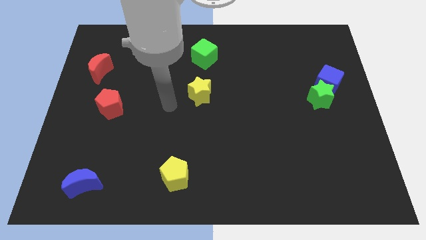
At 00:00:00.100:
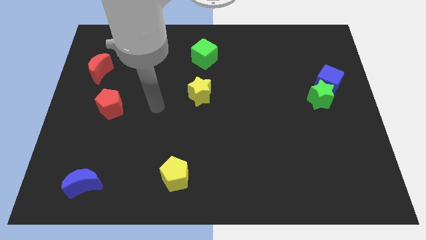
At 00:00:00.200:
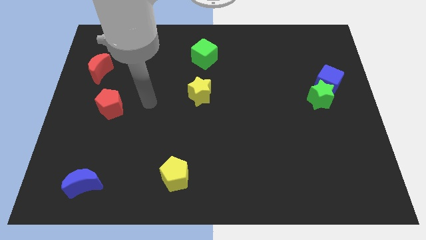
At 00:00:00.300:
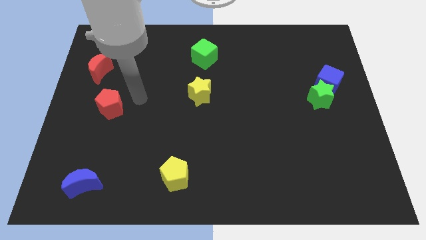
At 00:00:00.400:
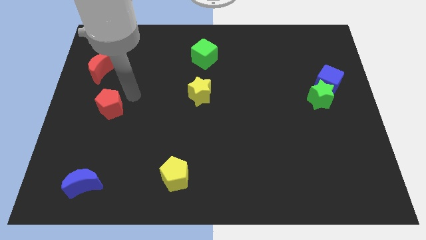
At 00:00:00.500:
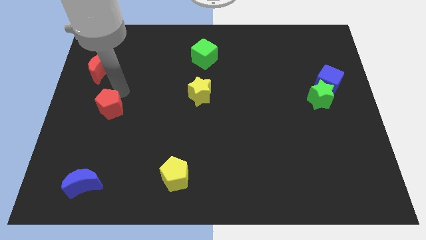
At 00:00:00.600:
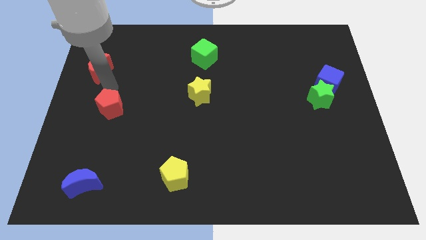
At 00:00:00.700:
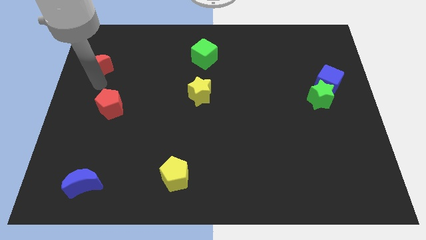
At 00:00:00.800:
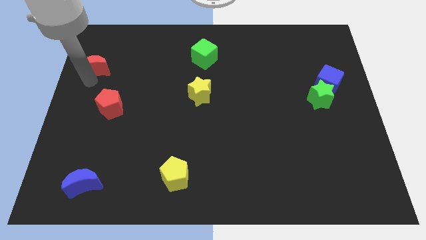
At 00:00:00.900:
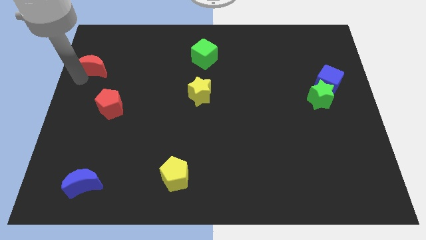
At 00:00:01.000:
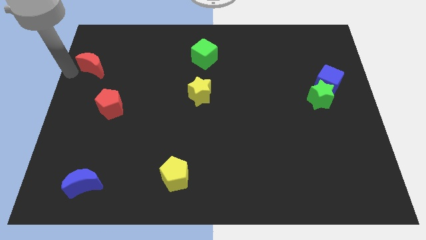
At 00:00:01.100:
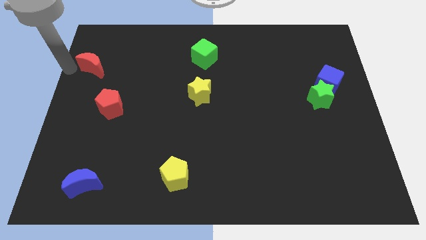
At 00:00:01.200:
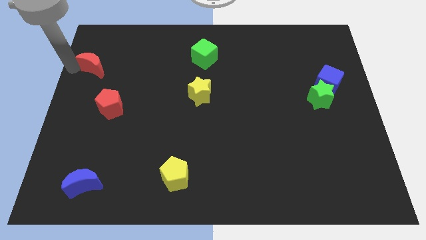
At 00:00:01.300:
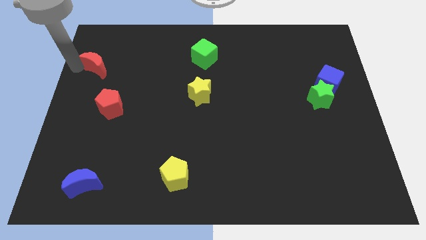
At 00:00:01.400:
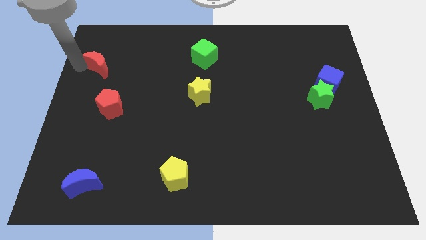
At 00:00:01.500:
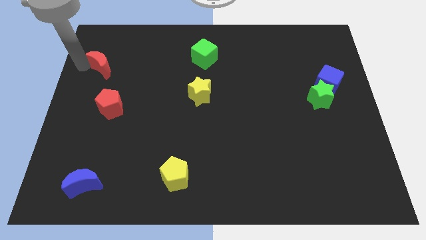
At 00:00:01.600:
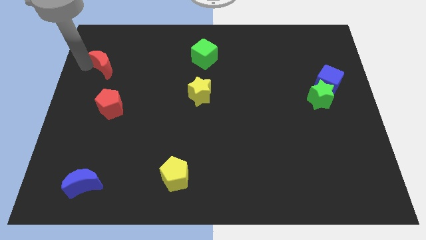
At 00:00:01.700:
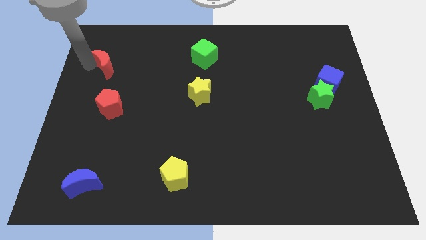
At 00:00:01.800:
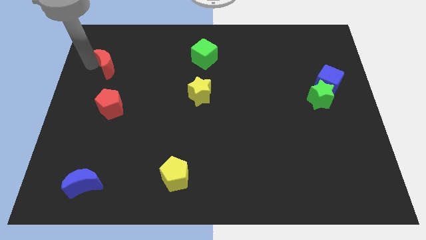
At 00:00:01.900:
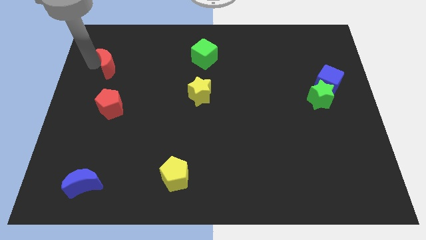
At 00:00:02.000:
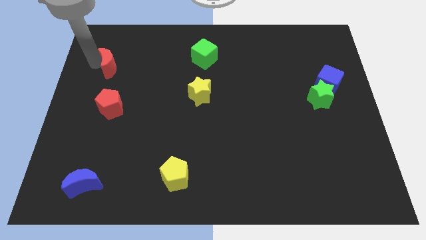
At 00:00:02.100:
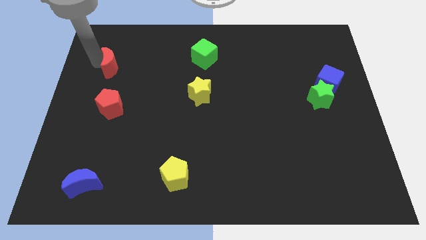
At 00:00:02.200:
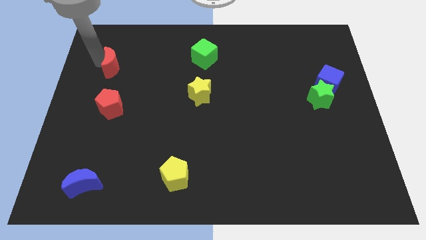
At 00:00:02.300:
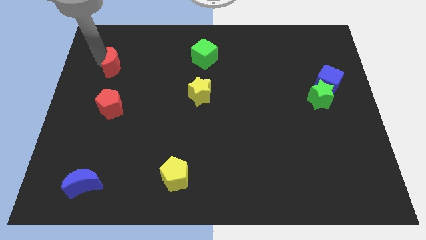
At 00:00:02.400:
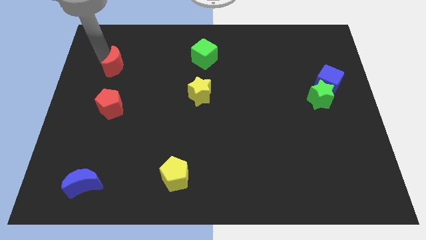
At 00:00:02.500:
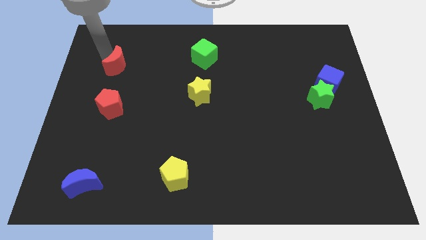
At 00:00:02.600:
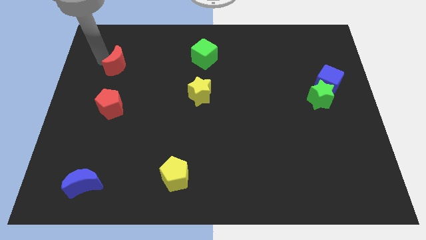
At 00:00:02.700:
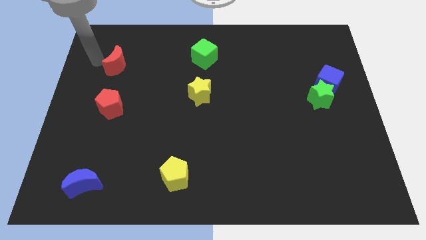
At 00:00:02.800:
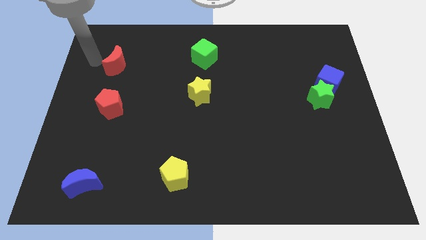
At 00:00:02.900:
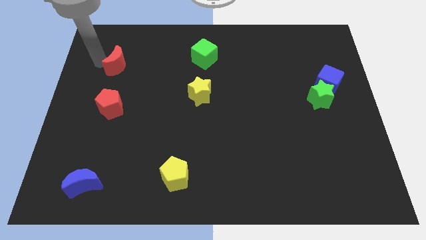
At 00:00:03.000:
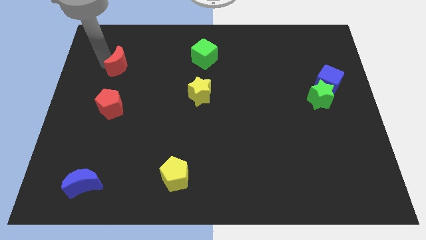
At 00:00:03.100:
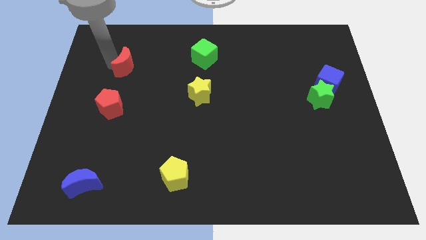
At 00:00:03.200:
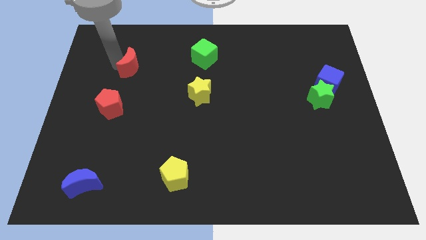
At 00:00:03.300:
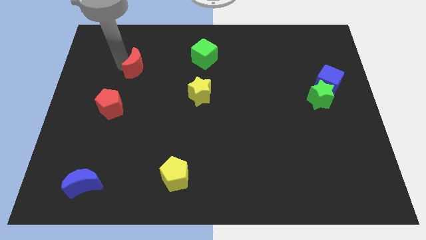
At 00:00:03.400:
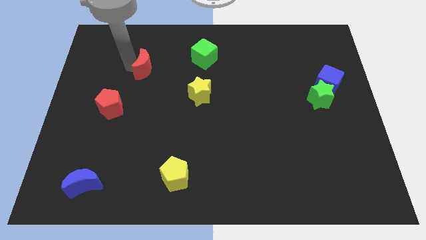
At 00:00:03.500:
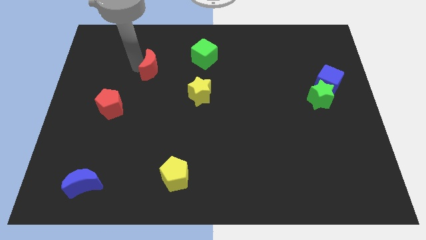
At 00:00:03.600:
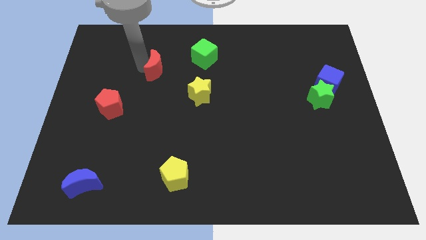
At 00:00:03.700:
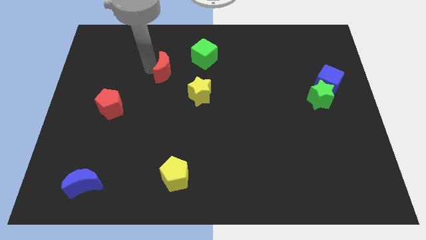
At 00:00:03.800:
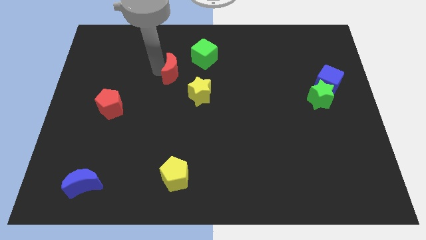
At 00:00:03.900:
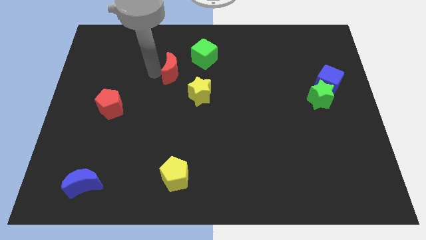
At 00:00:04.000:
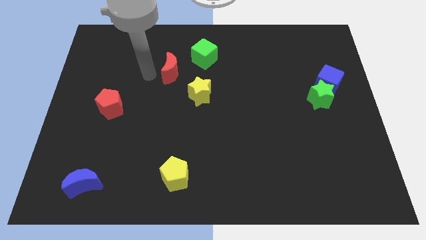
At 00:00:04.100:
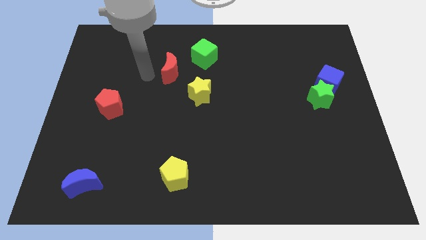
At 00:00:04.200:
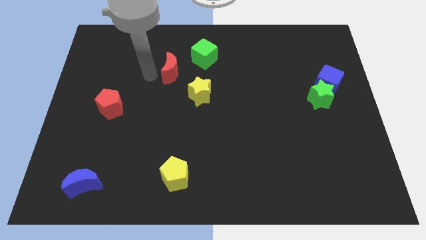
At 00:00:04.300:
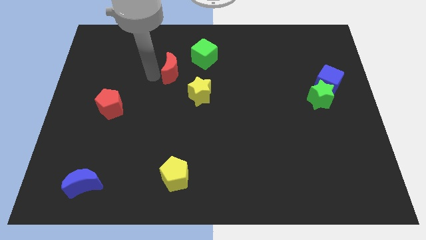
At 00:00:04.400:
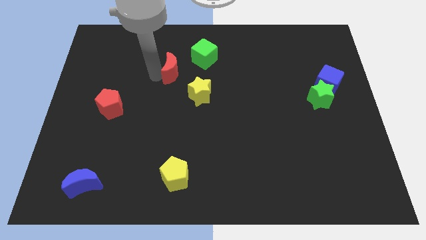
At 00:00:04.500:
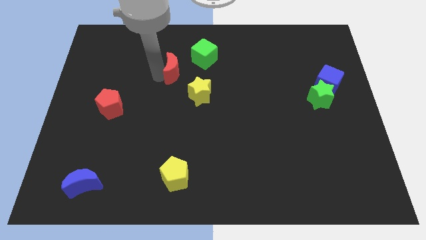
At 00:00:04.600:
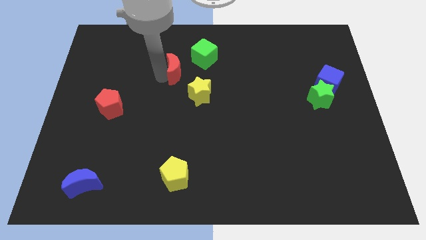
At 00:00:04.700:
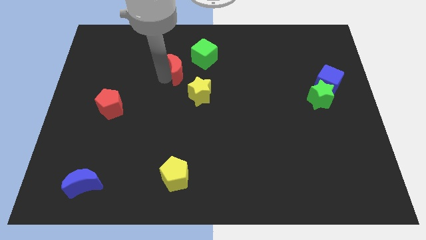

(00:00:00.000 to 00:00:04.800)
move the red moon to the right

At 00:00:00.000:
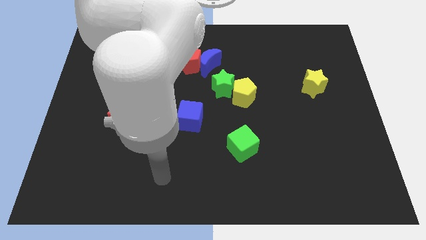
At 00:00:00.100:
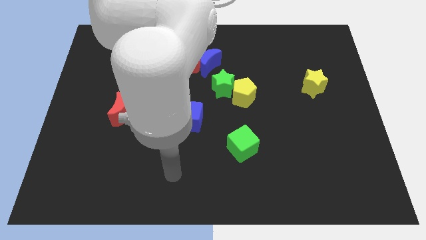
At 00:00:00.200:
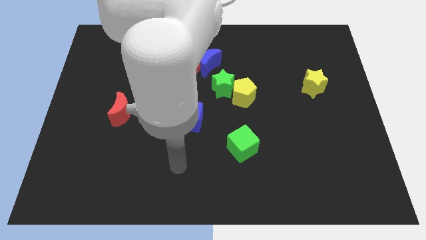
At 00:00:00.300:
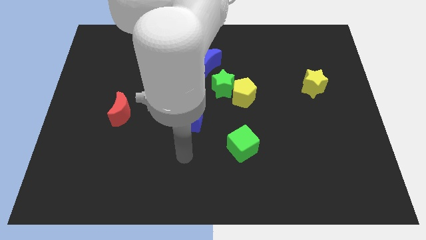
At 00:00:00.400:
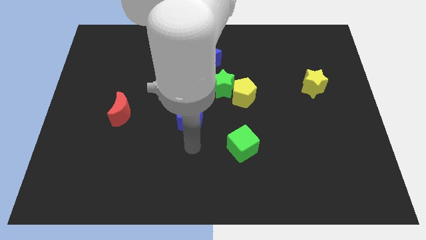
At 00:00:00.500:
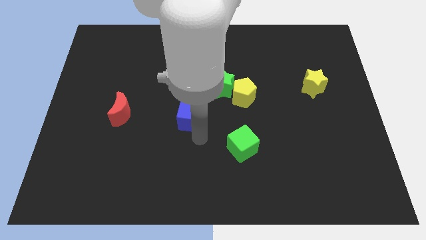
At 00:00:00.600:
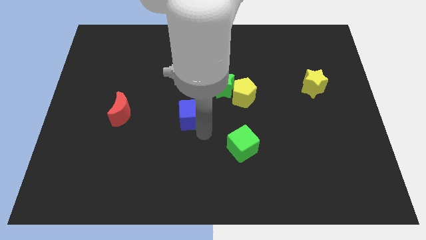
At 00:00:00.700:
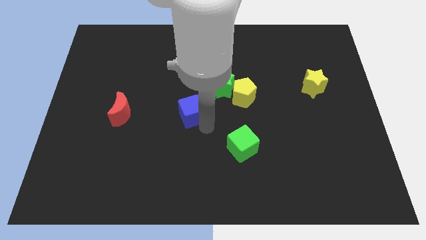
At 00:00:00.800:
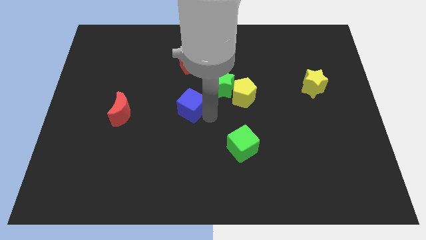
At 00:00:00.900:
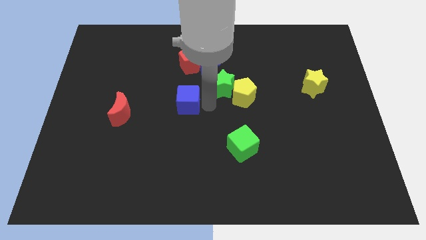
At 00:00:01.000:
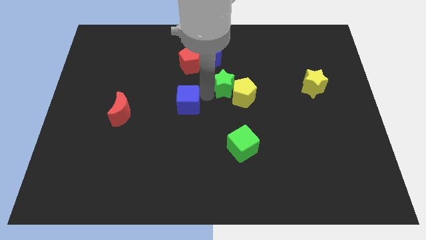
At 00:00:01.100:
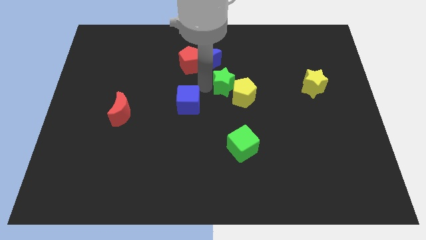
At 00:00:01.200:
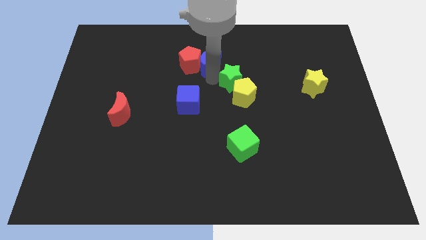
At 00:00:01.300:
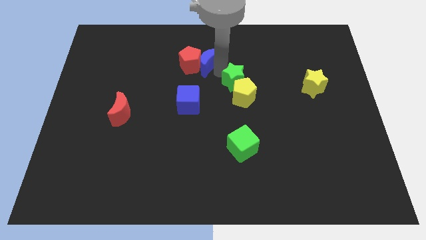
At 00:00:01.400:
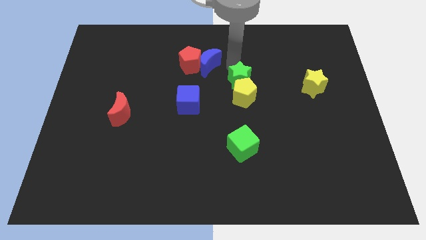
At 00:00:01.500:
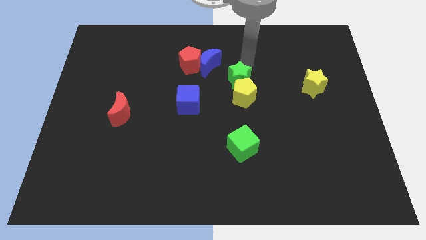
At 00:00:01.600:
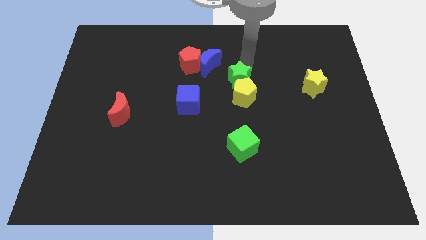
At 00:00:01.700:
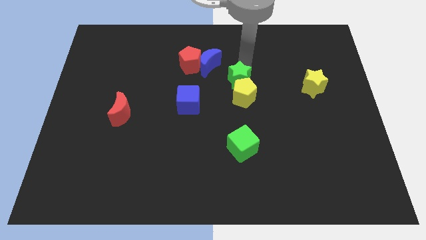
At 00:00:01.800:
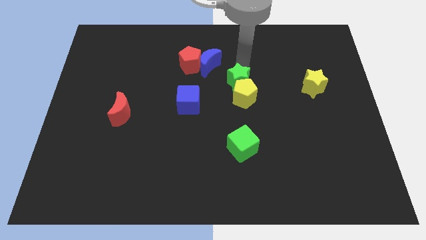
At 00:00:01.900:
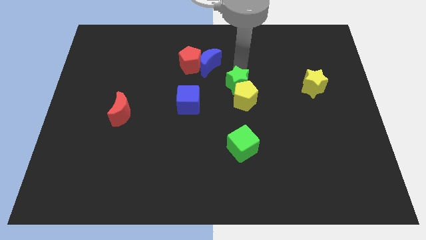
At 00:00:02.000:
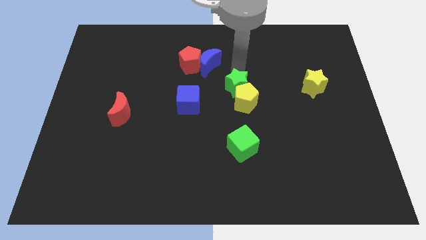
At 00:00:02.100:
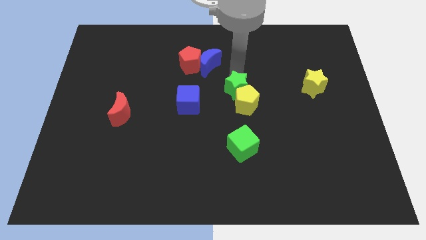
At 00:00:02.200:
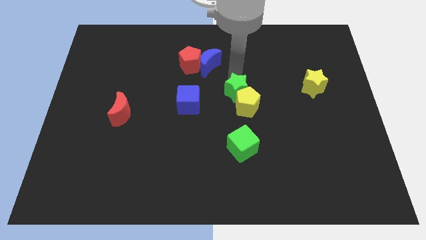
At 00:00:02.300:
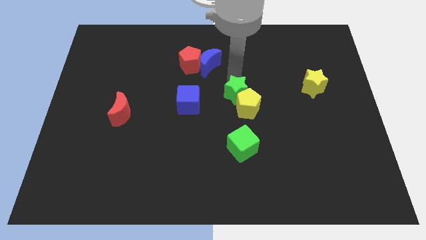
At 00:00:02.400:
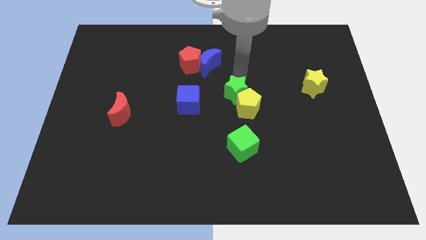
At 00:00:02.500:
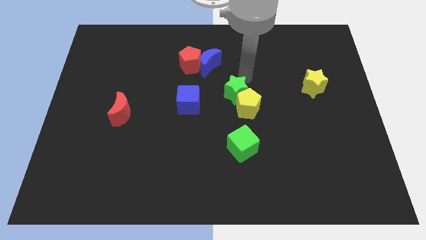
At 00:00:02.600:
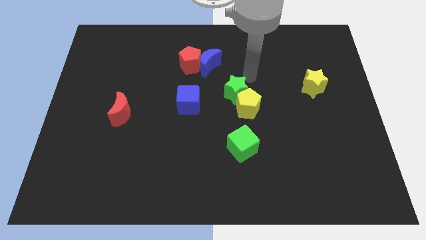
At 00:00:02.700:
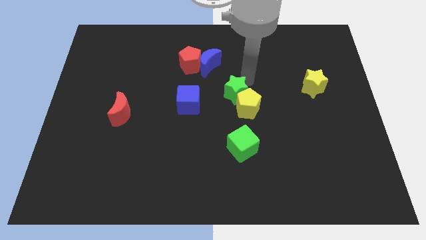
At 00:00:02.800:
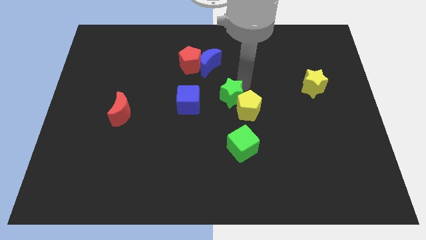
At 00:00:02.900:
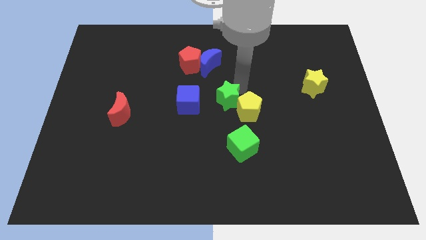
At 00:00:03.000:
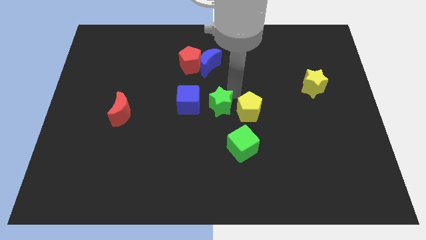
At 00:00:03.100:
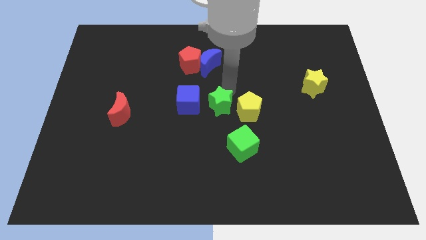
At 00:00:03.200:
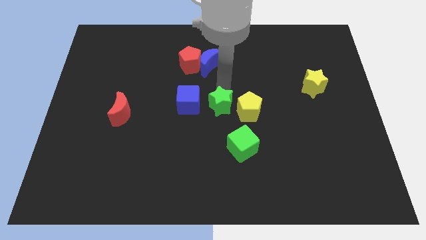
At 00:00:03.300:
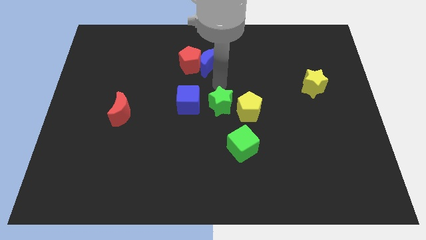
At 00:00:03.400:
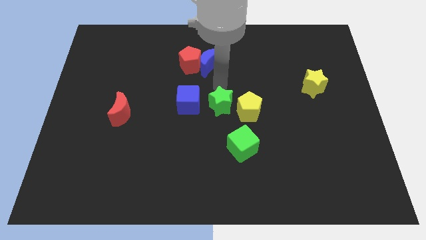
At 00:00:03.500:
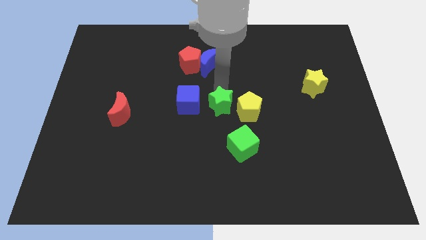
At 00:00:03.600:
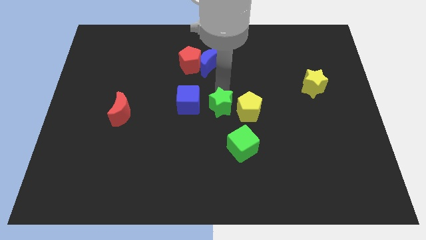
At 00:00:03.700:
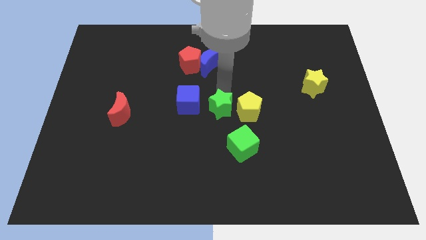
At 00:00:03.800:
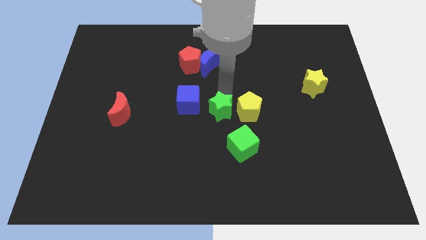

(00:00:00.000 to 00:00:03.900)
slightly push the green star downwards
